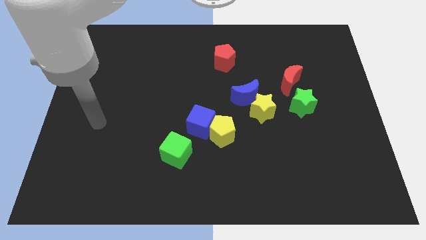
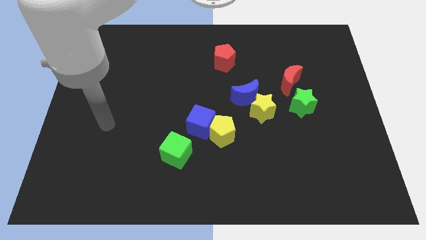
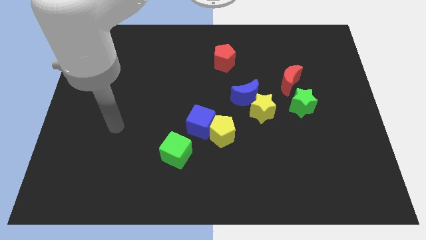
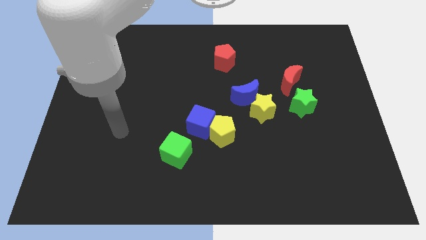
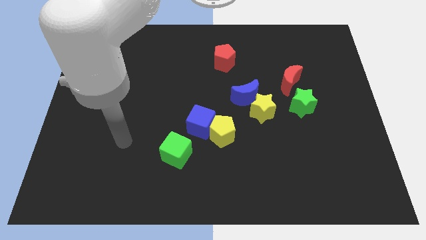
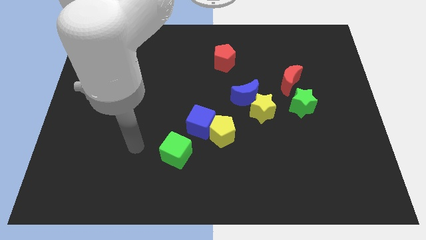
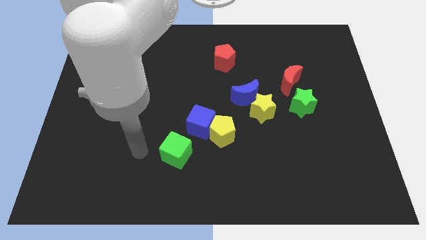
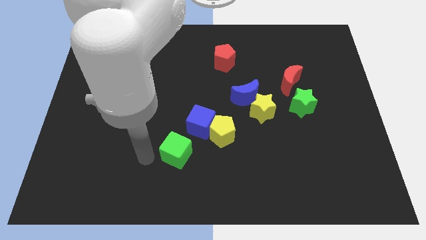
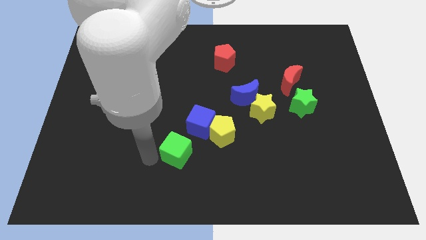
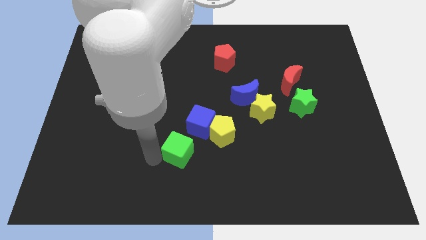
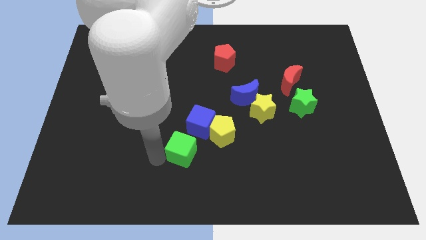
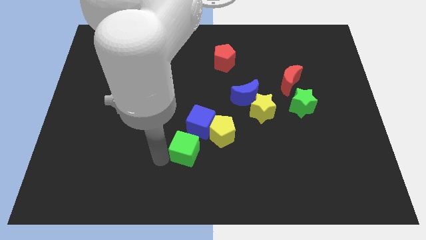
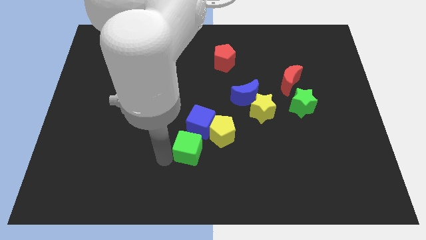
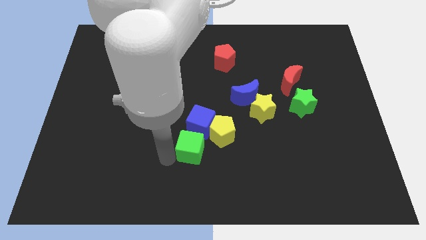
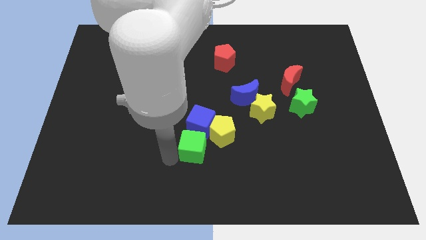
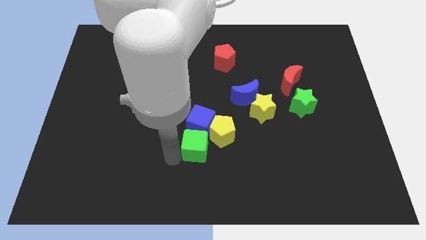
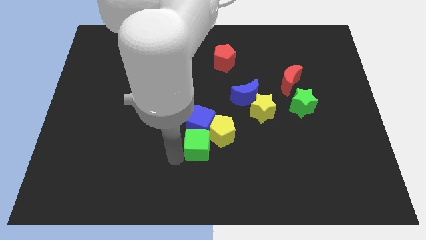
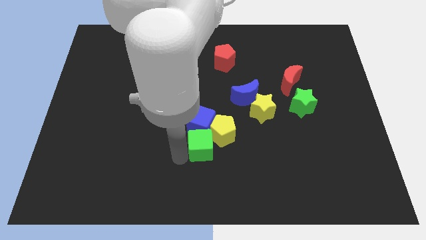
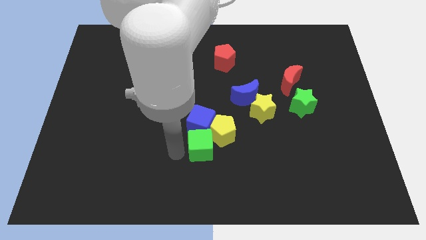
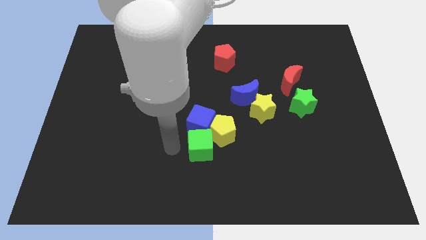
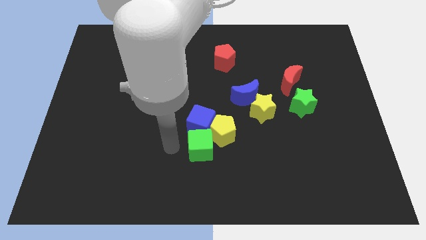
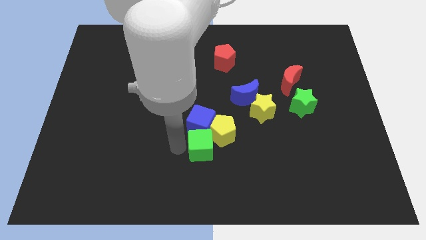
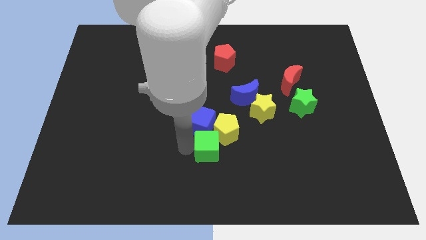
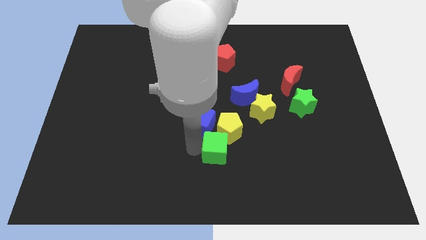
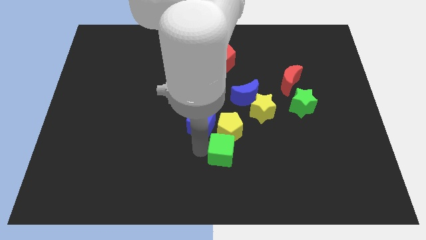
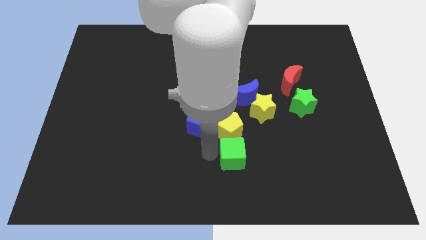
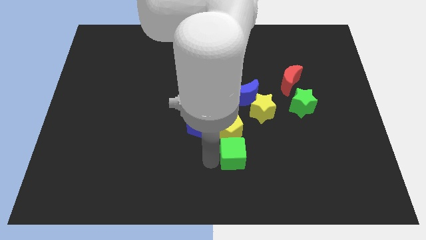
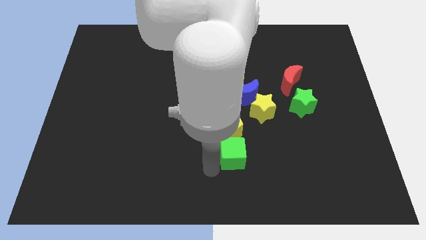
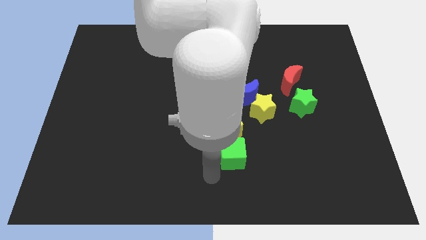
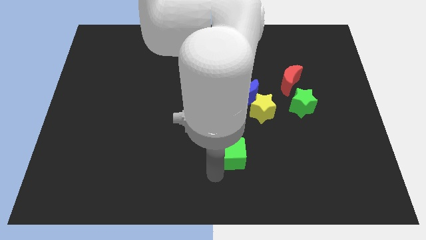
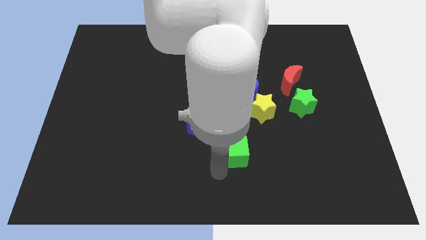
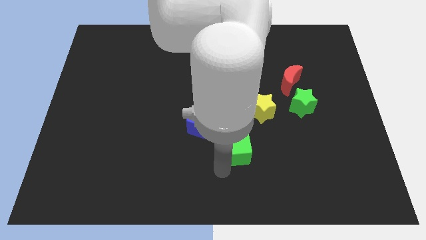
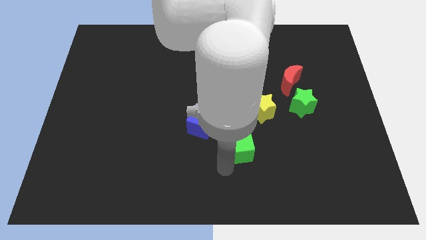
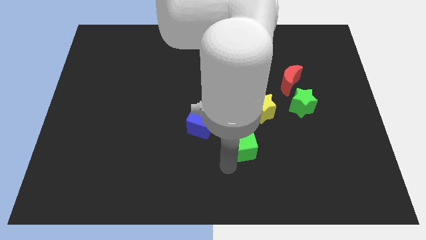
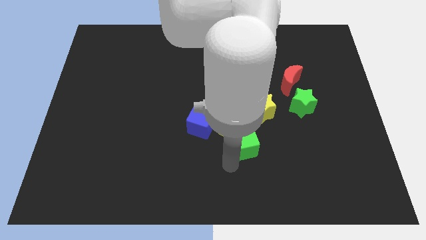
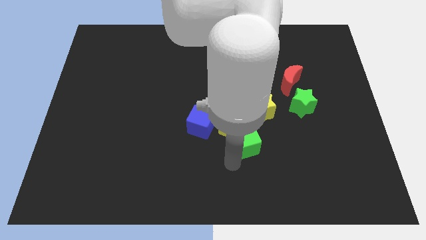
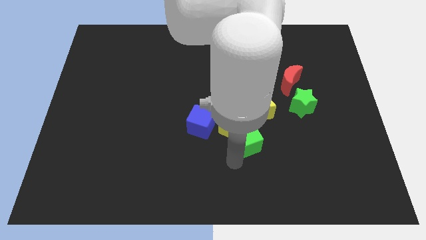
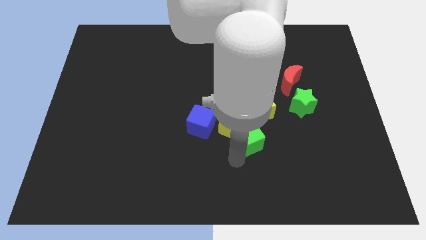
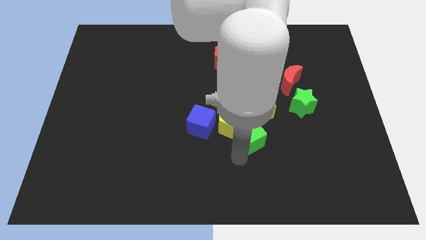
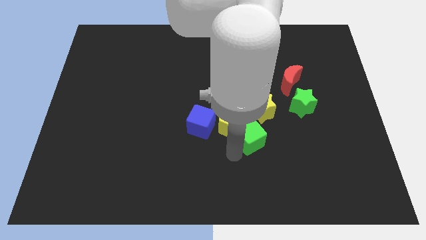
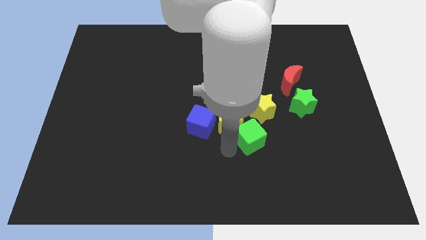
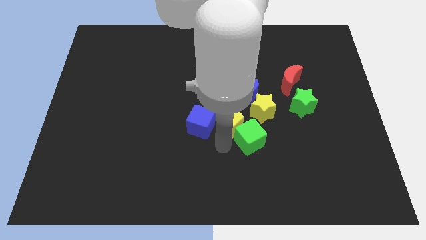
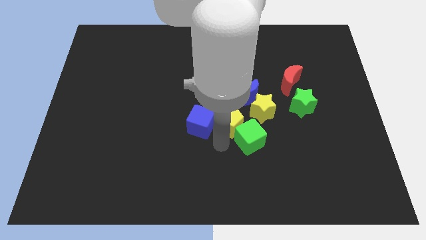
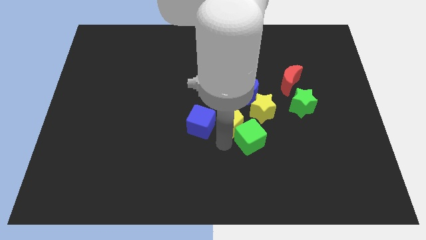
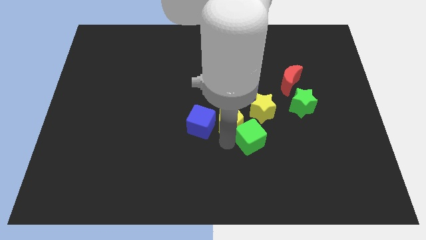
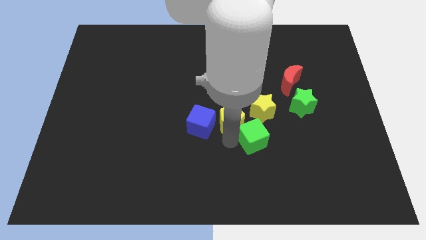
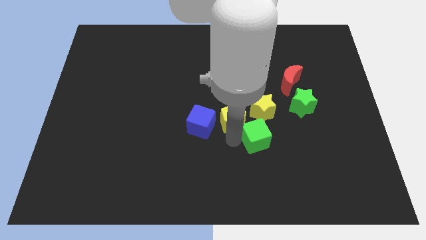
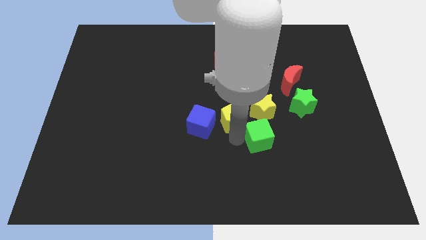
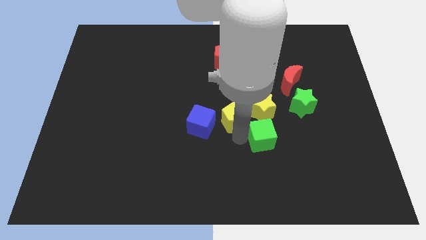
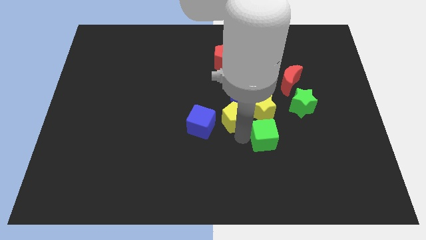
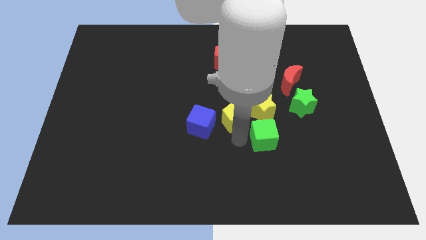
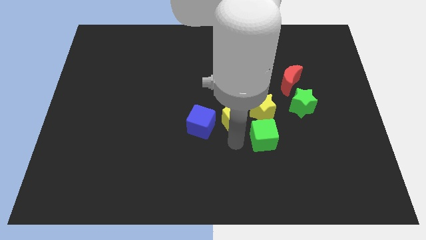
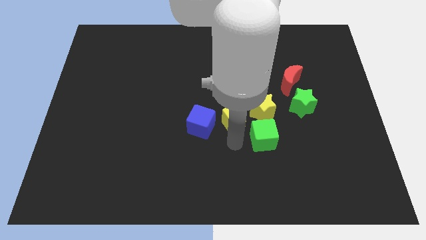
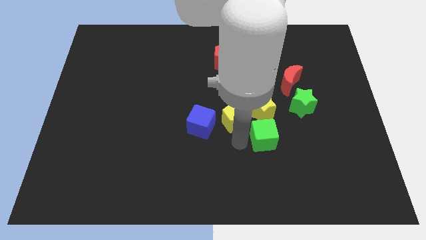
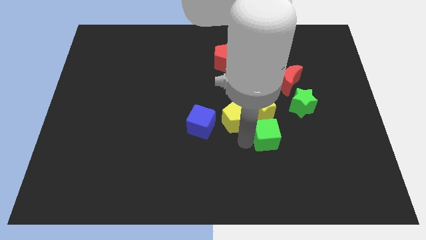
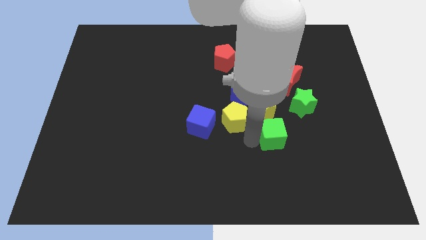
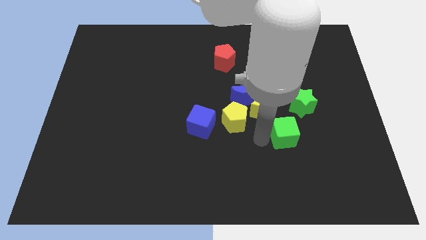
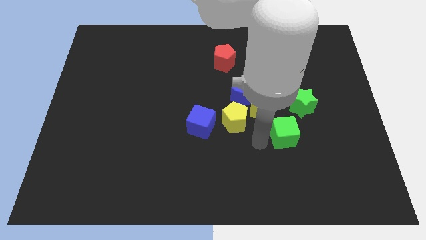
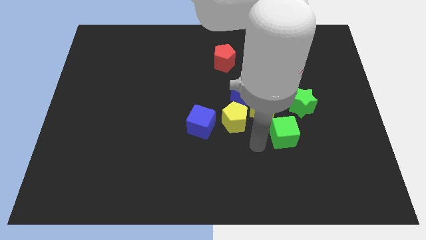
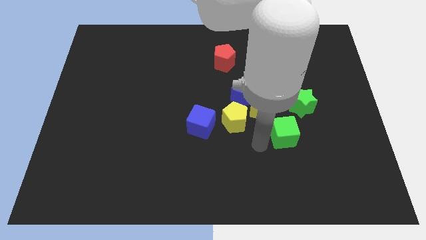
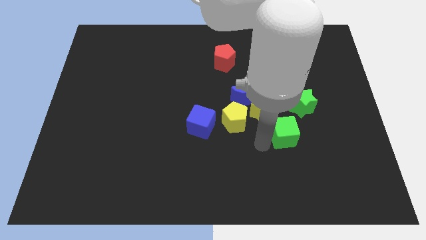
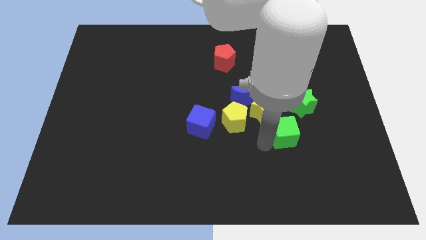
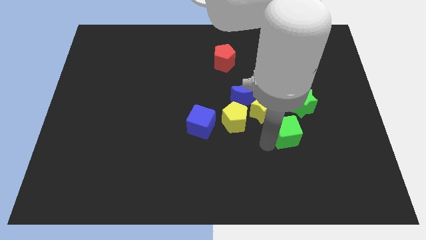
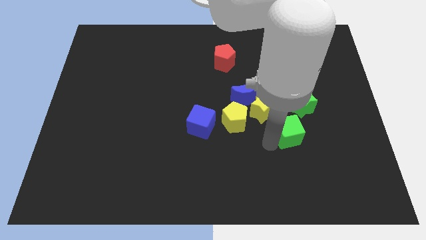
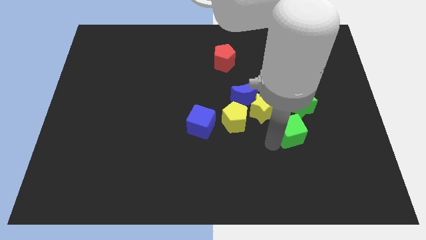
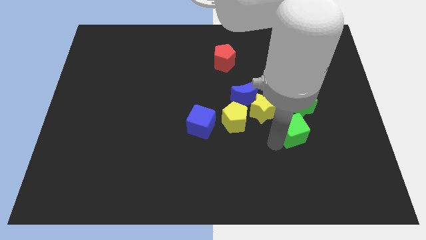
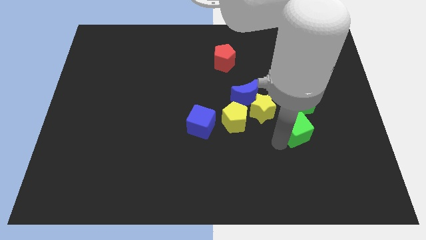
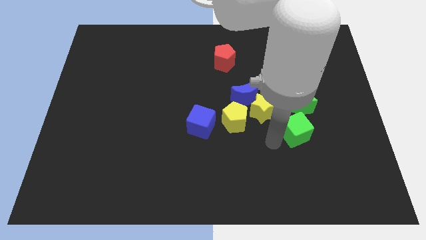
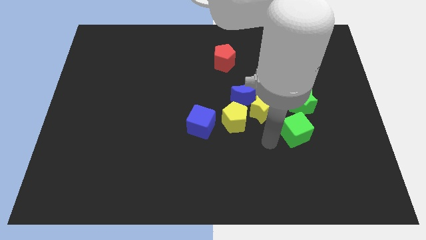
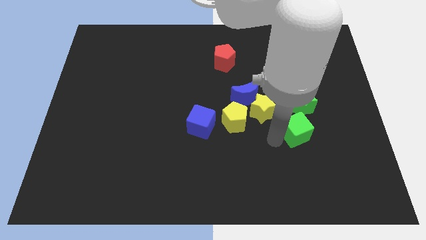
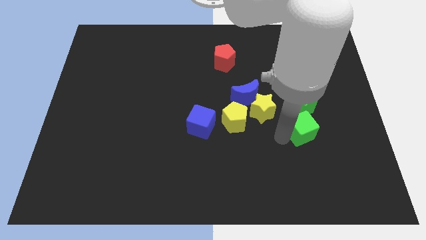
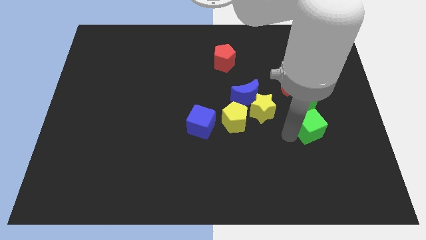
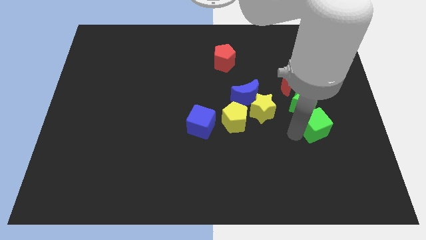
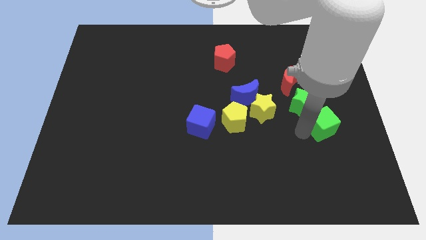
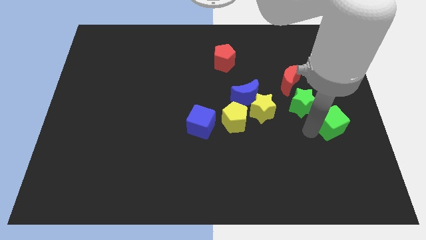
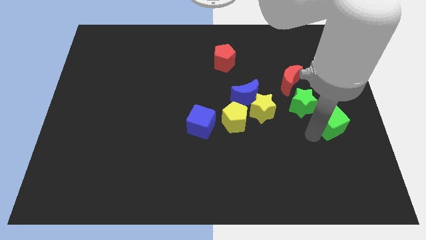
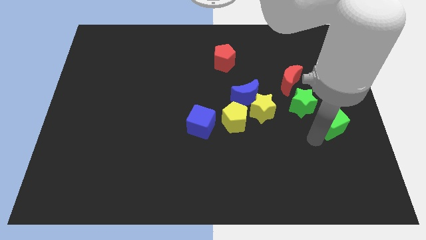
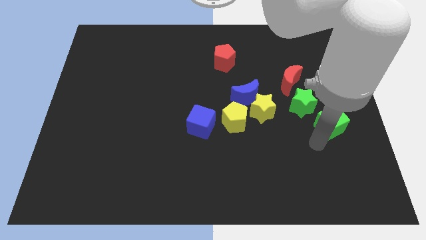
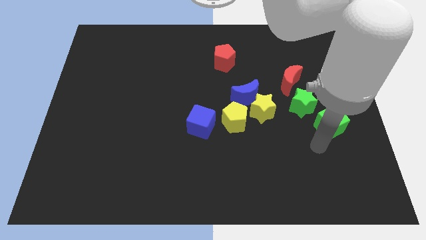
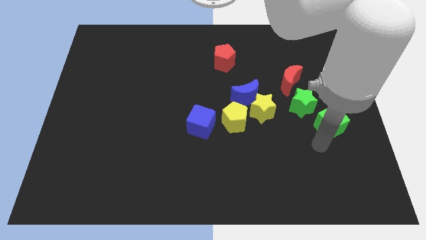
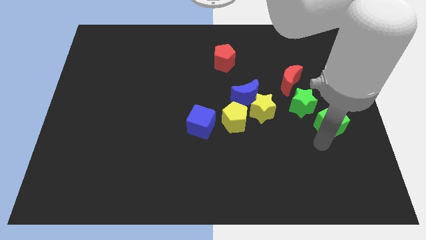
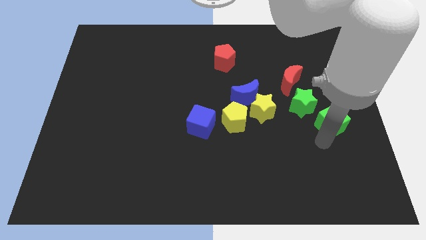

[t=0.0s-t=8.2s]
slide the green cube to the right side of the board
